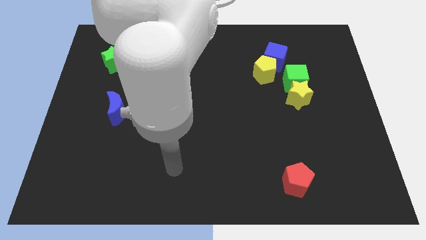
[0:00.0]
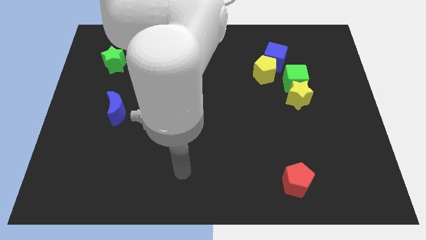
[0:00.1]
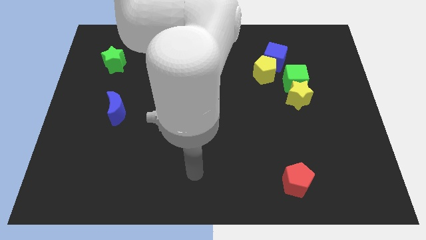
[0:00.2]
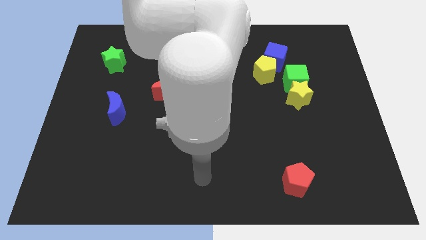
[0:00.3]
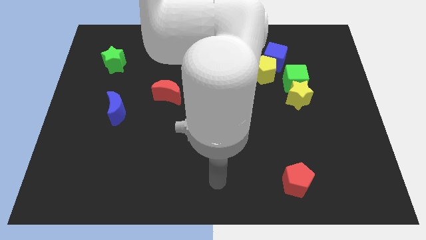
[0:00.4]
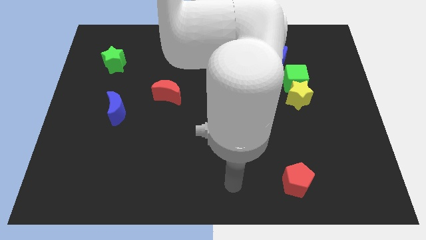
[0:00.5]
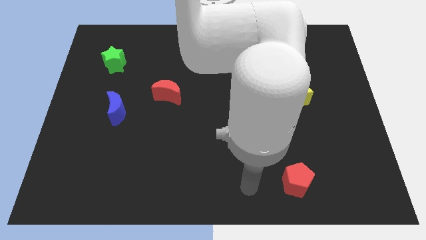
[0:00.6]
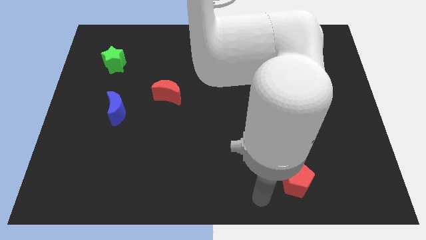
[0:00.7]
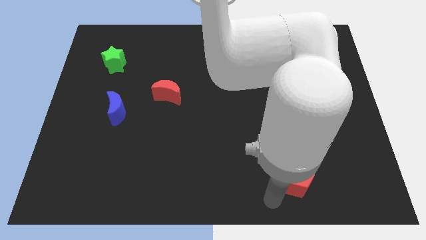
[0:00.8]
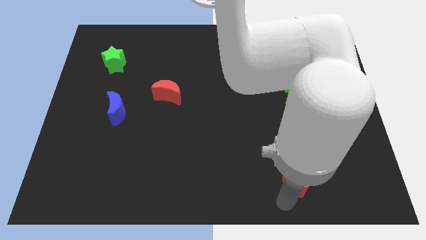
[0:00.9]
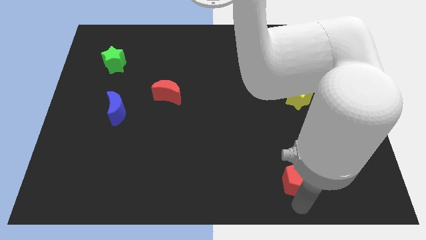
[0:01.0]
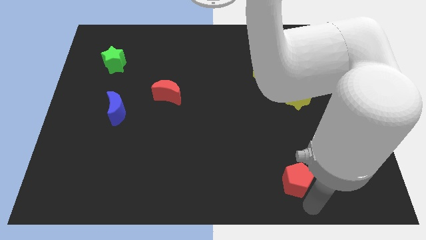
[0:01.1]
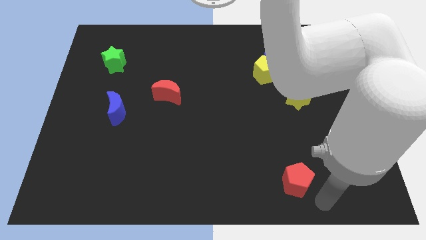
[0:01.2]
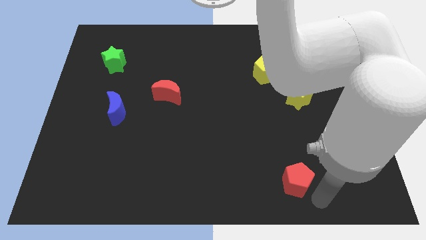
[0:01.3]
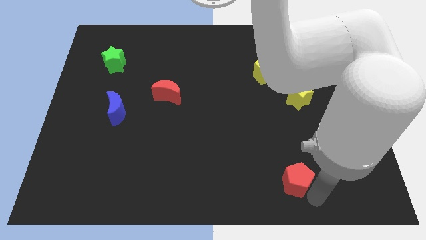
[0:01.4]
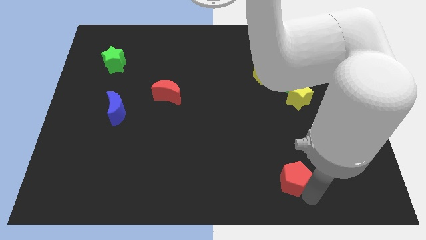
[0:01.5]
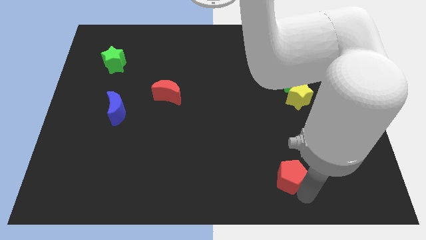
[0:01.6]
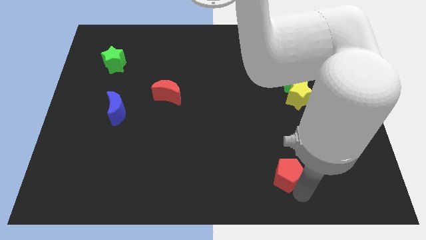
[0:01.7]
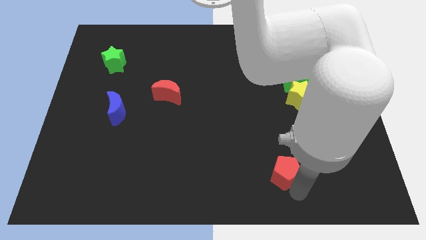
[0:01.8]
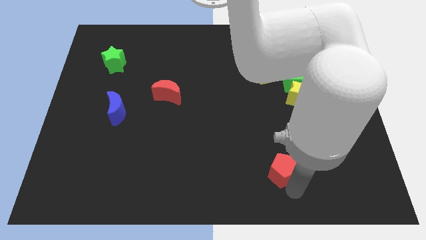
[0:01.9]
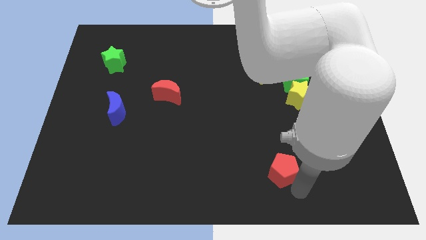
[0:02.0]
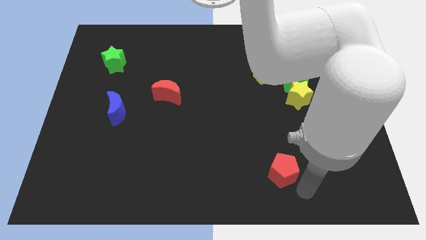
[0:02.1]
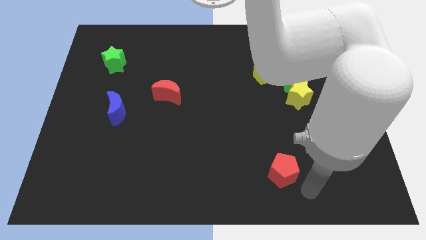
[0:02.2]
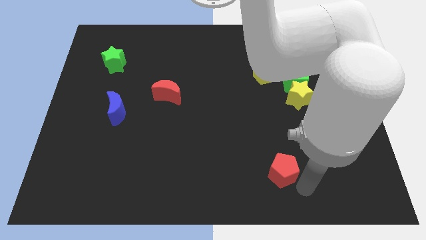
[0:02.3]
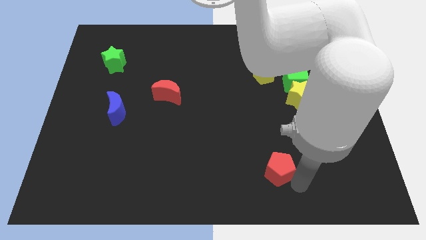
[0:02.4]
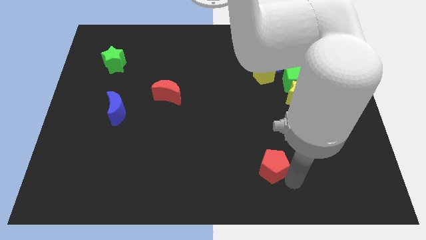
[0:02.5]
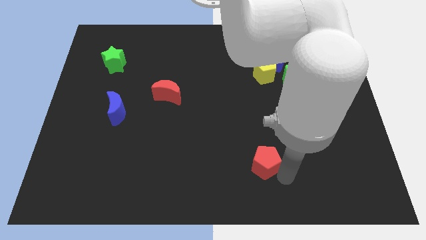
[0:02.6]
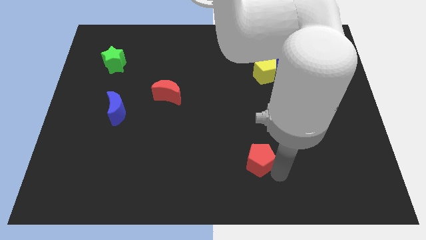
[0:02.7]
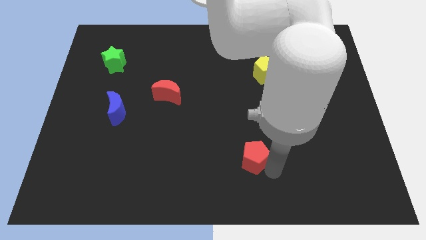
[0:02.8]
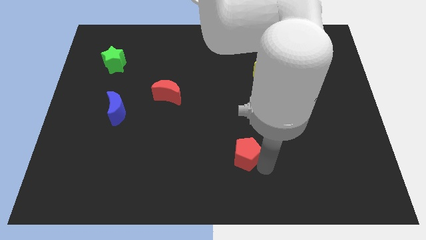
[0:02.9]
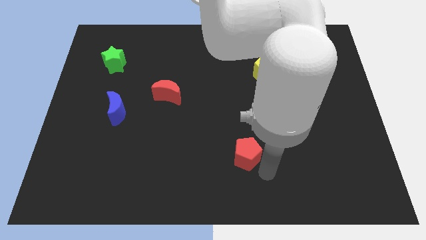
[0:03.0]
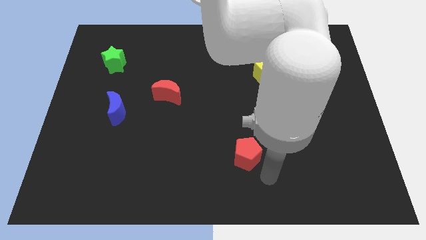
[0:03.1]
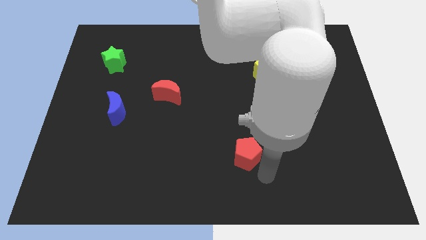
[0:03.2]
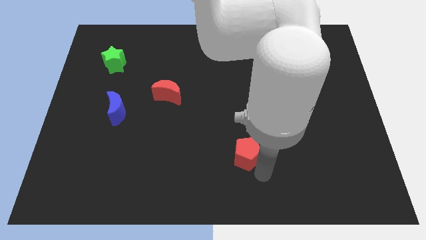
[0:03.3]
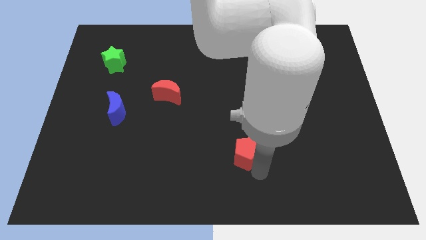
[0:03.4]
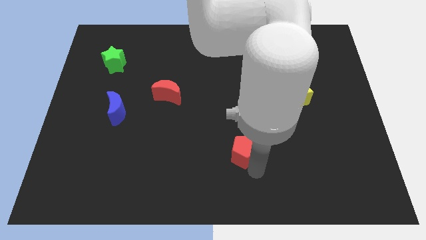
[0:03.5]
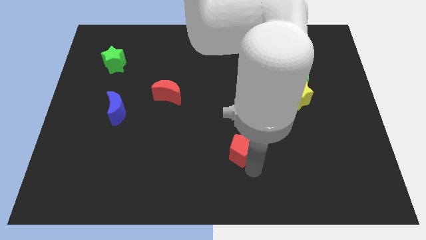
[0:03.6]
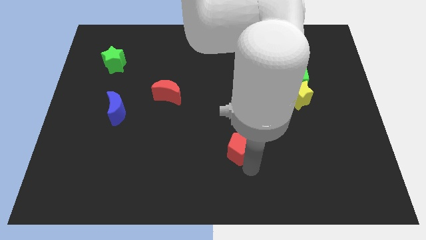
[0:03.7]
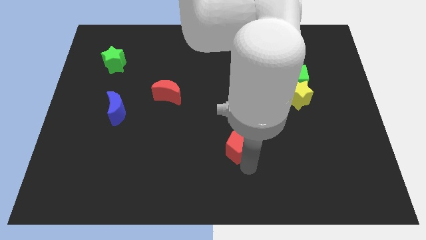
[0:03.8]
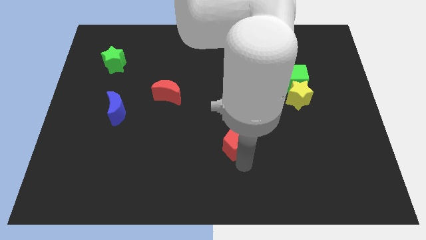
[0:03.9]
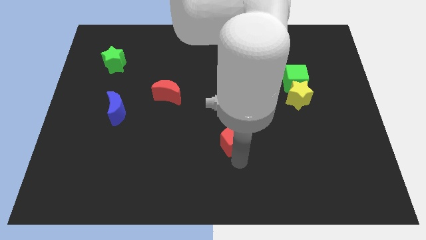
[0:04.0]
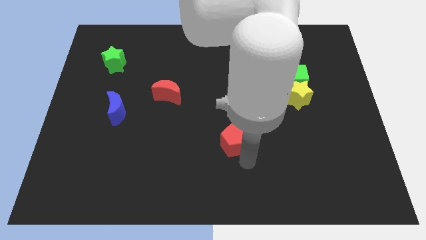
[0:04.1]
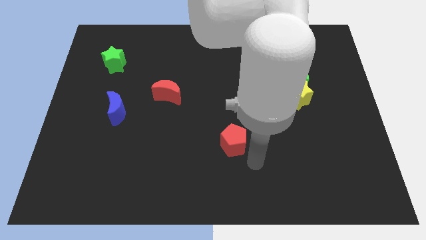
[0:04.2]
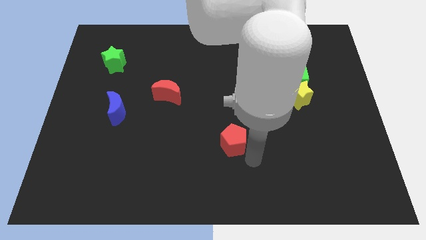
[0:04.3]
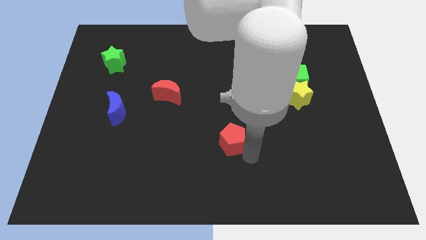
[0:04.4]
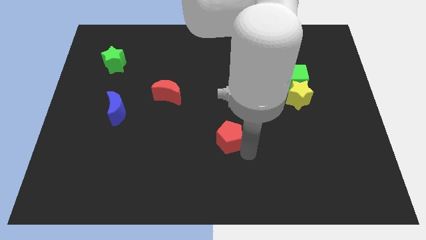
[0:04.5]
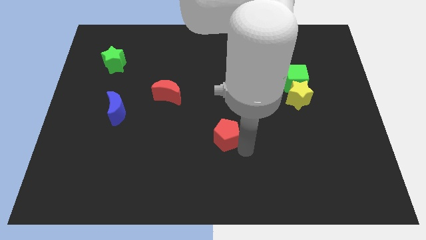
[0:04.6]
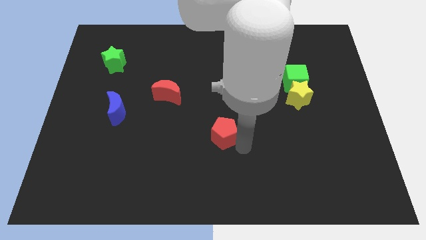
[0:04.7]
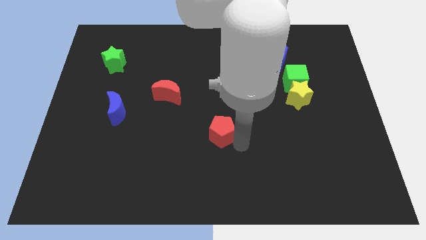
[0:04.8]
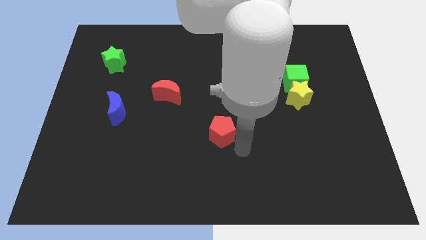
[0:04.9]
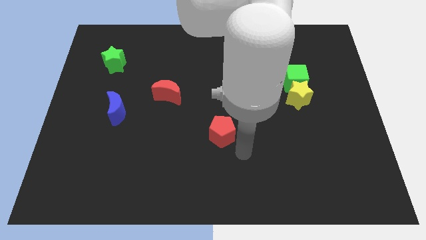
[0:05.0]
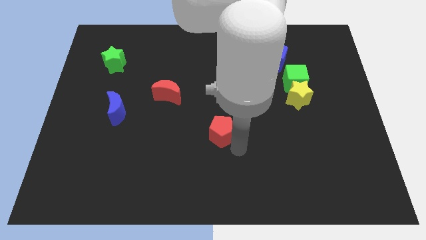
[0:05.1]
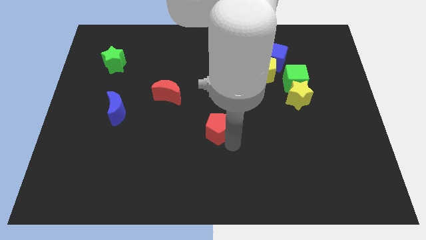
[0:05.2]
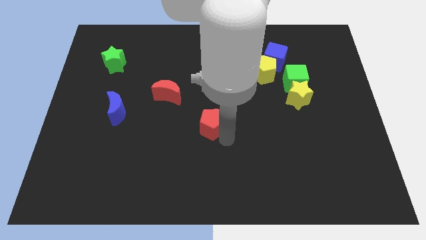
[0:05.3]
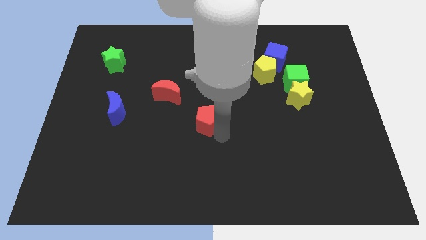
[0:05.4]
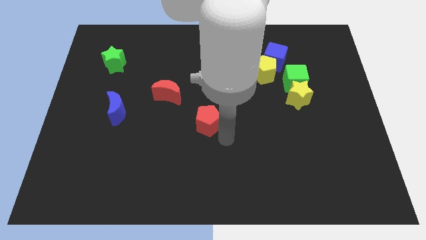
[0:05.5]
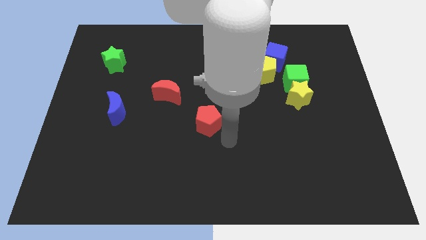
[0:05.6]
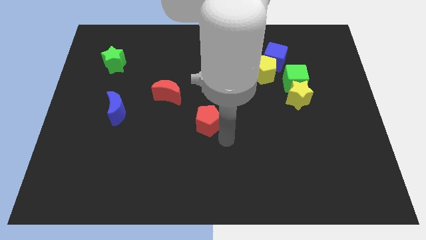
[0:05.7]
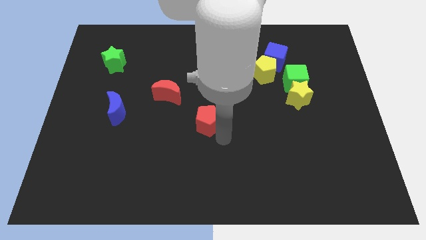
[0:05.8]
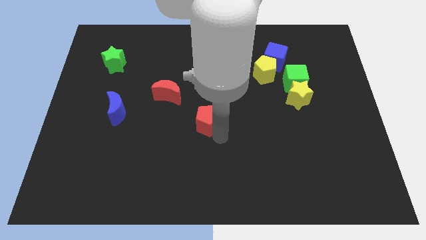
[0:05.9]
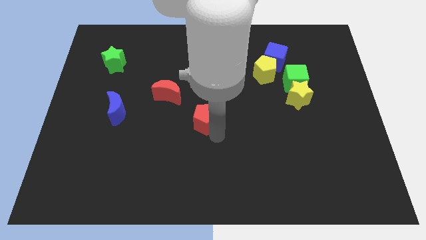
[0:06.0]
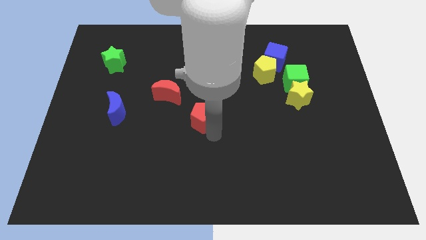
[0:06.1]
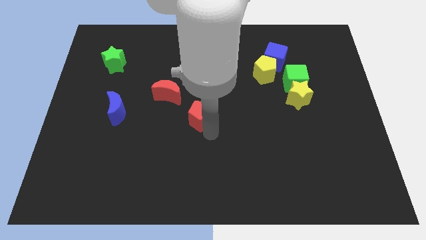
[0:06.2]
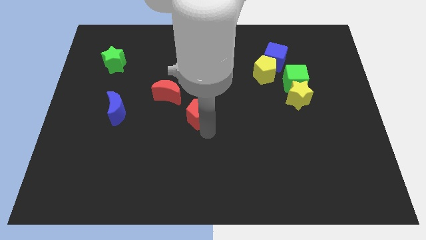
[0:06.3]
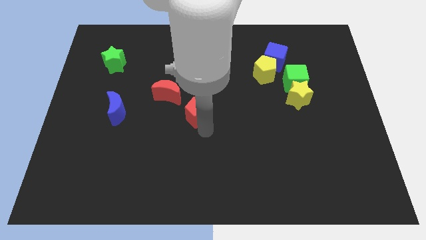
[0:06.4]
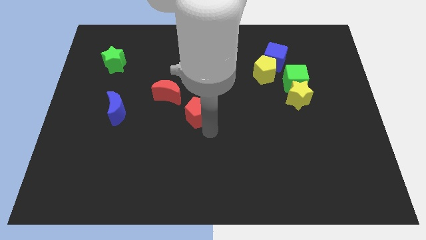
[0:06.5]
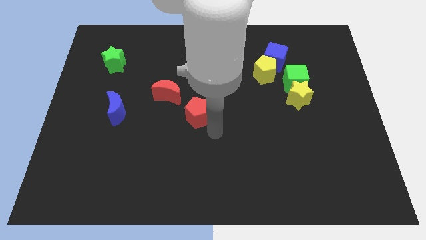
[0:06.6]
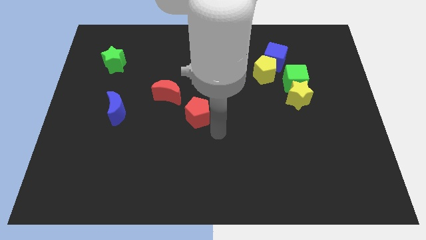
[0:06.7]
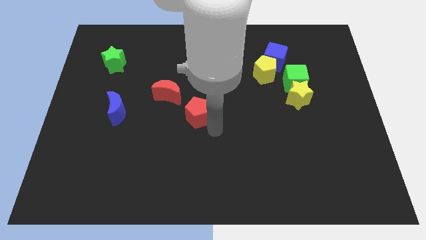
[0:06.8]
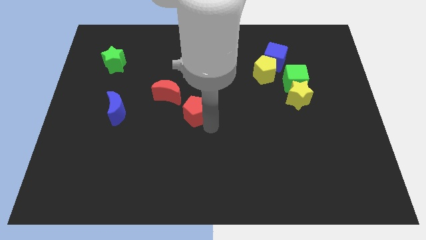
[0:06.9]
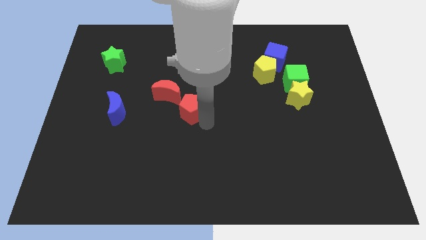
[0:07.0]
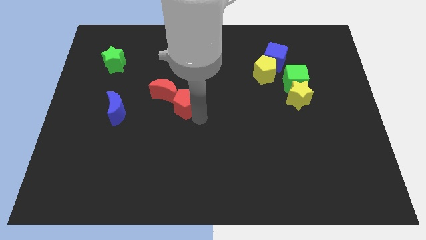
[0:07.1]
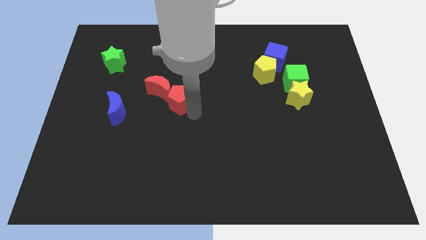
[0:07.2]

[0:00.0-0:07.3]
put the red pentagon close to the red moon
